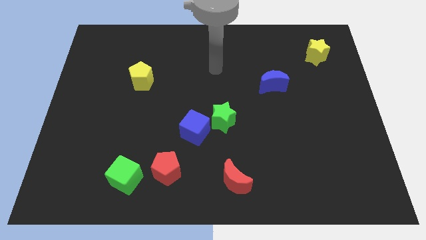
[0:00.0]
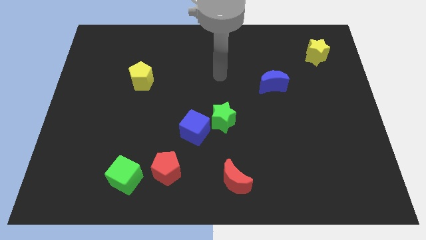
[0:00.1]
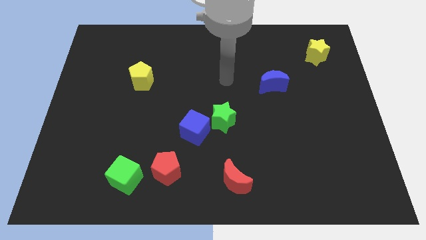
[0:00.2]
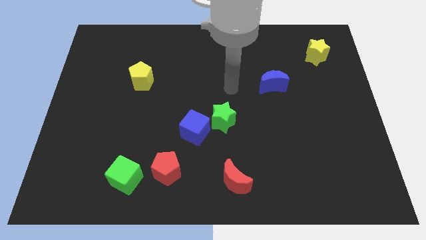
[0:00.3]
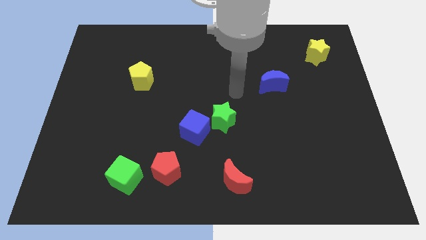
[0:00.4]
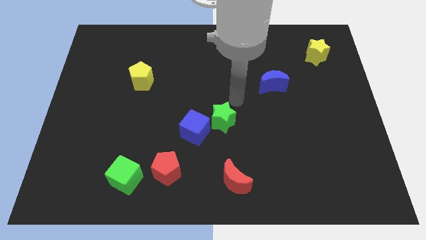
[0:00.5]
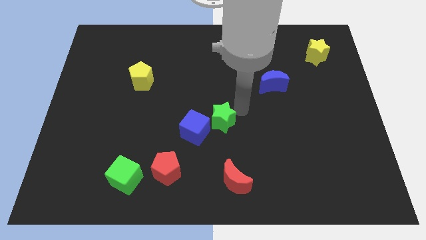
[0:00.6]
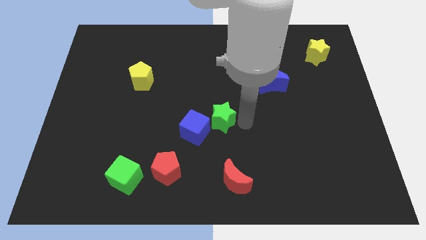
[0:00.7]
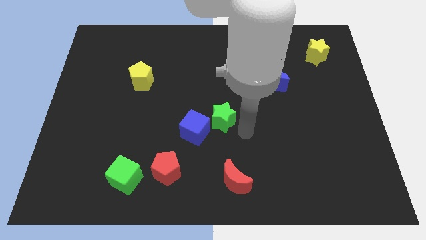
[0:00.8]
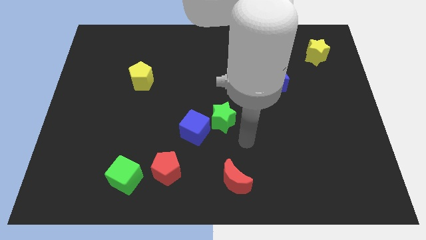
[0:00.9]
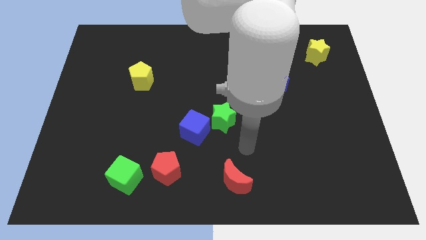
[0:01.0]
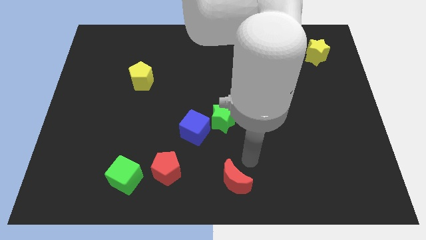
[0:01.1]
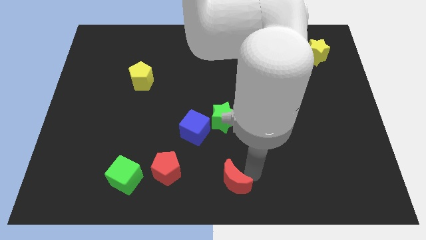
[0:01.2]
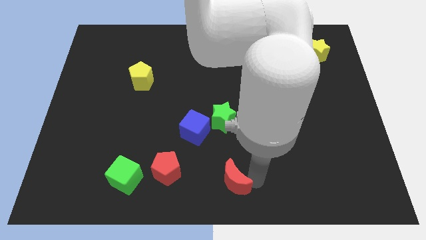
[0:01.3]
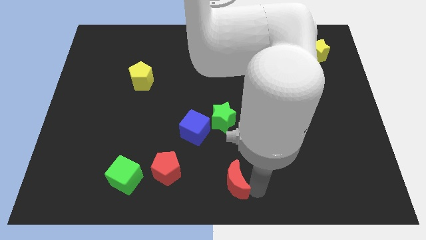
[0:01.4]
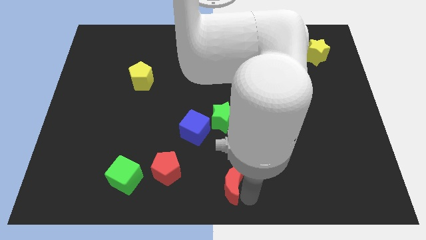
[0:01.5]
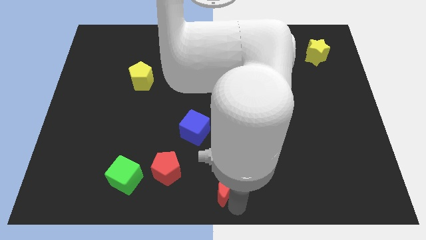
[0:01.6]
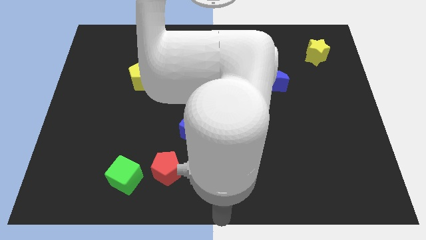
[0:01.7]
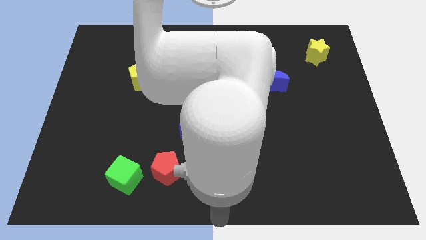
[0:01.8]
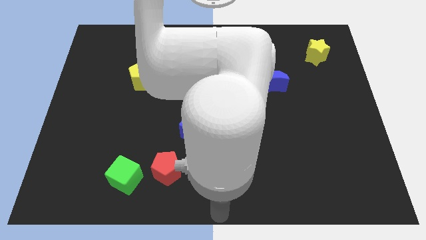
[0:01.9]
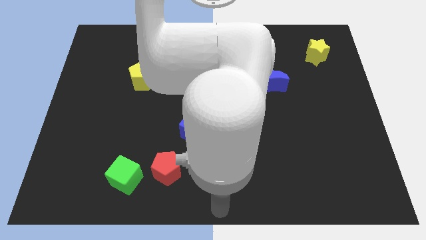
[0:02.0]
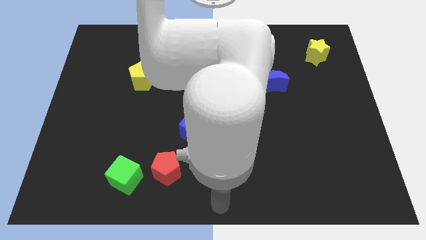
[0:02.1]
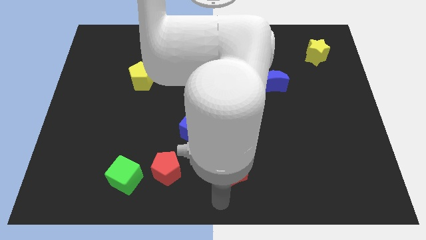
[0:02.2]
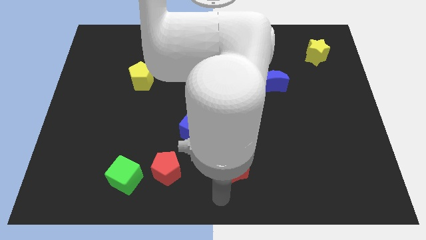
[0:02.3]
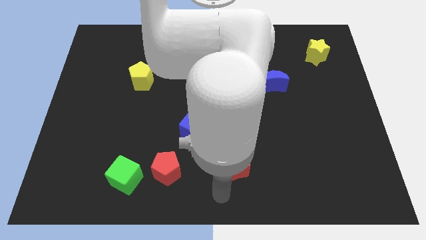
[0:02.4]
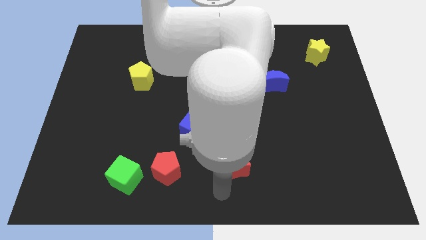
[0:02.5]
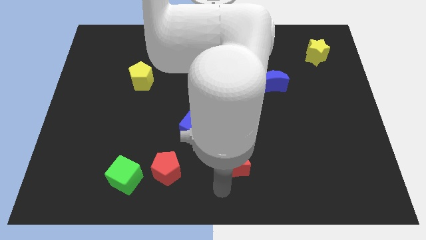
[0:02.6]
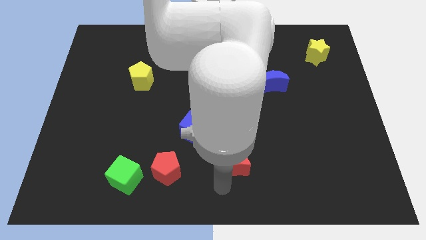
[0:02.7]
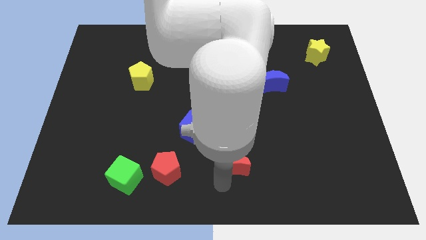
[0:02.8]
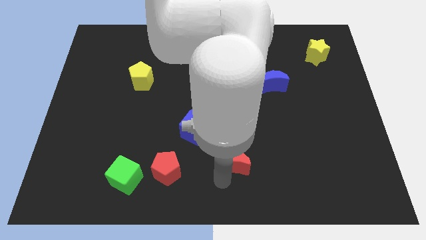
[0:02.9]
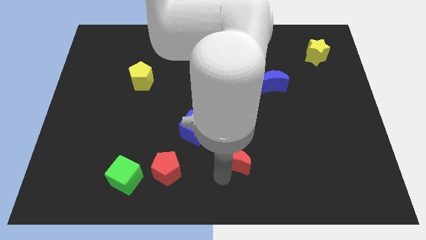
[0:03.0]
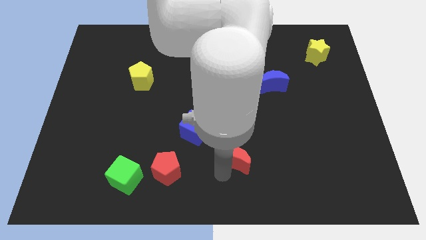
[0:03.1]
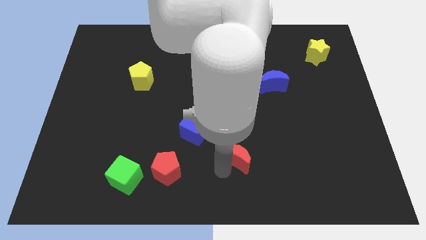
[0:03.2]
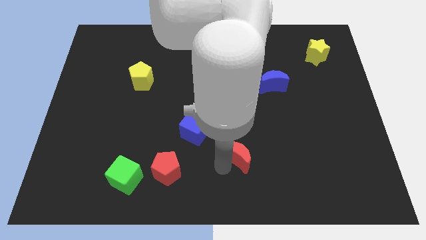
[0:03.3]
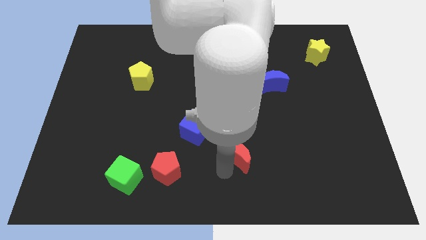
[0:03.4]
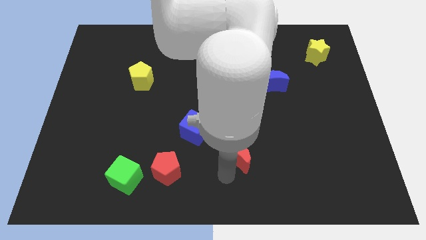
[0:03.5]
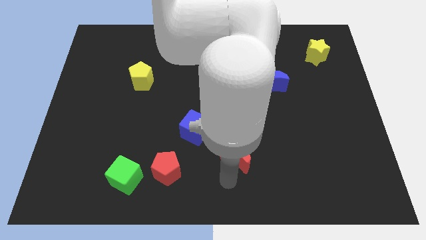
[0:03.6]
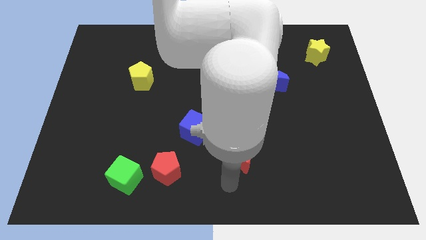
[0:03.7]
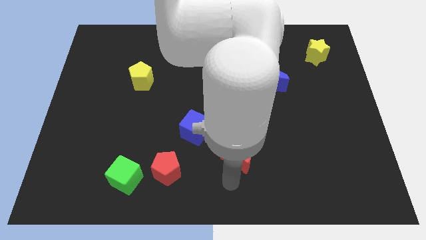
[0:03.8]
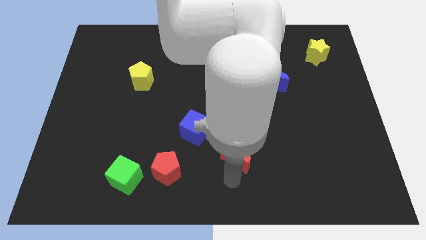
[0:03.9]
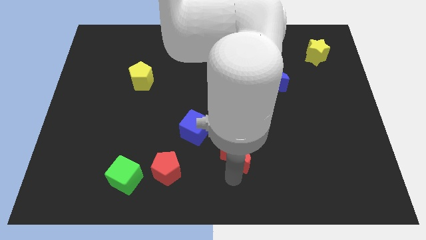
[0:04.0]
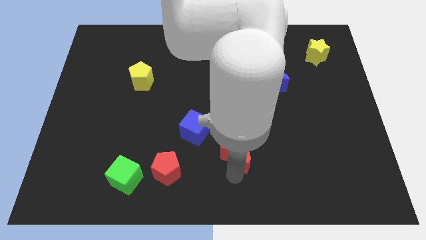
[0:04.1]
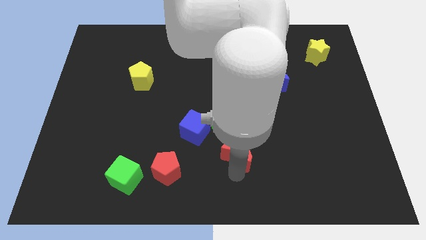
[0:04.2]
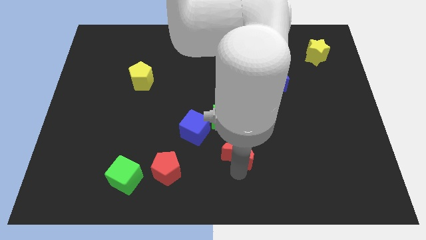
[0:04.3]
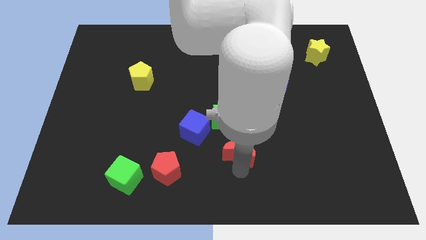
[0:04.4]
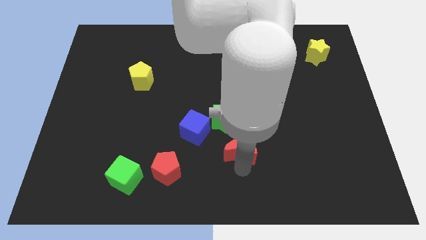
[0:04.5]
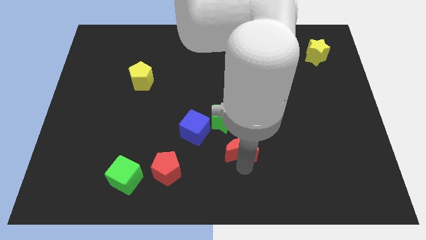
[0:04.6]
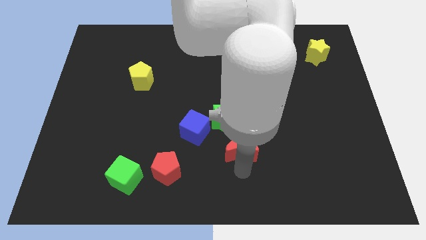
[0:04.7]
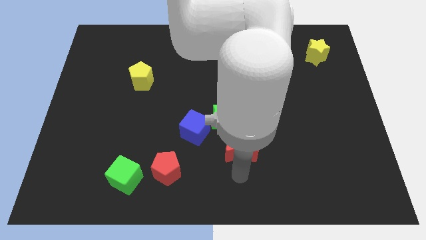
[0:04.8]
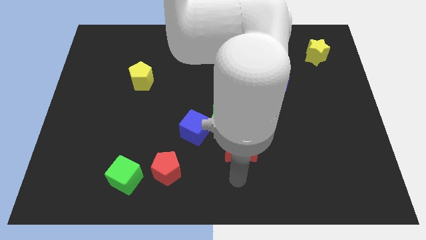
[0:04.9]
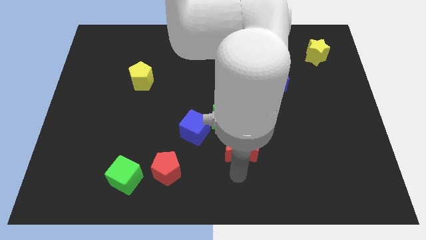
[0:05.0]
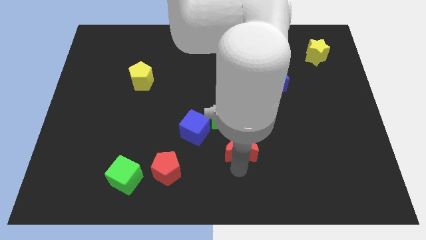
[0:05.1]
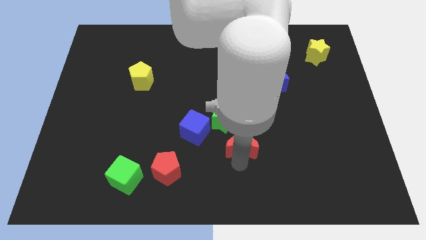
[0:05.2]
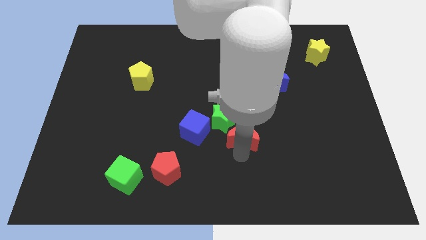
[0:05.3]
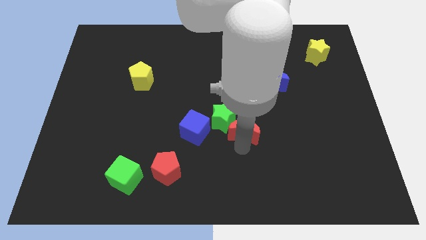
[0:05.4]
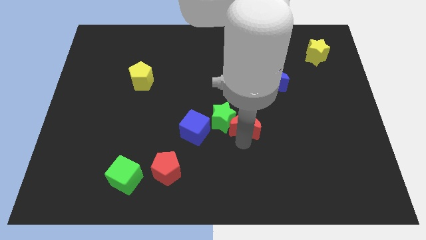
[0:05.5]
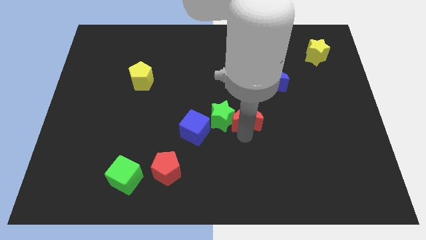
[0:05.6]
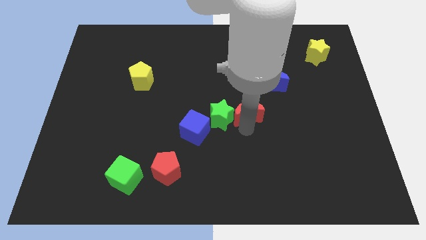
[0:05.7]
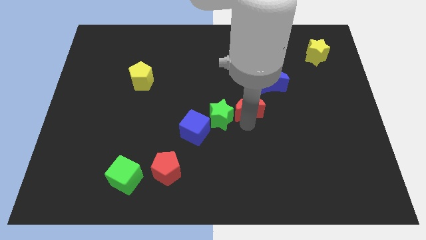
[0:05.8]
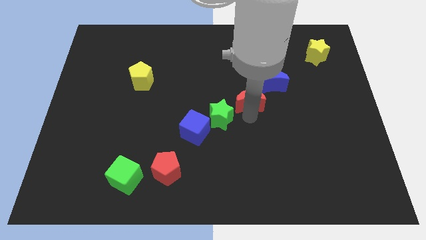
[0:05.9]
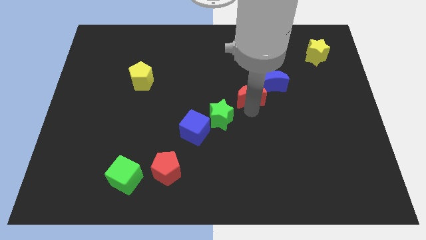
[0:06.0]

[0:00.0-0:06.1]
push the red moon up

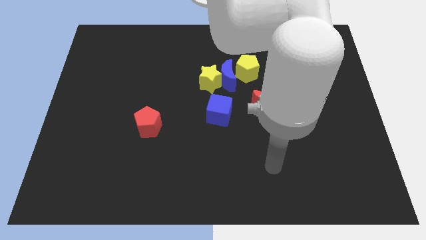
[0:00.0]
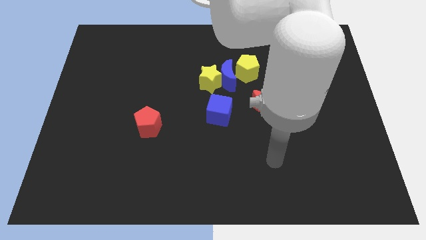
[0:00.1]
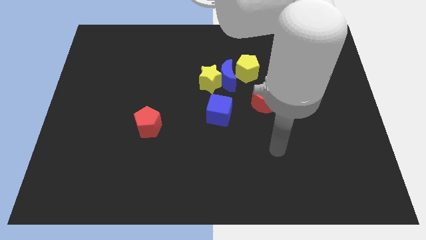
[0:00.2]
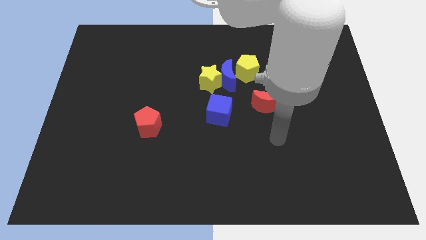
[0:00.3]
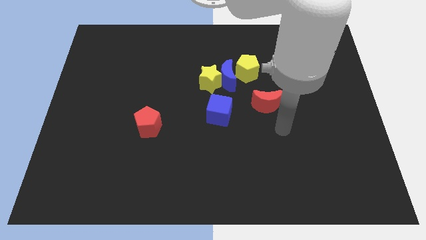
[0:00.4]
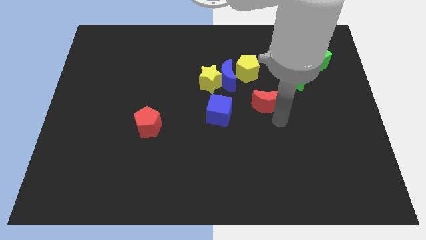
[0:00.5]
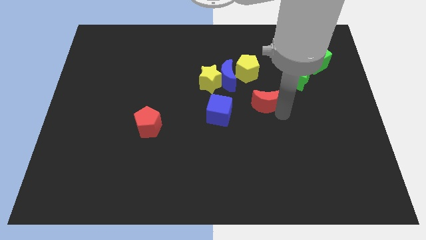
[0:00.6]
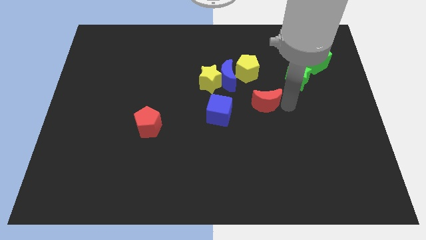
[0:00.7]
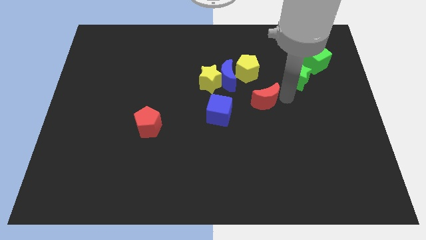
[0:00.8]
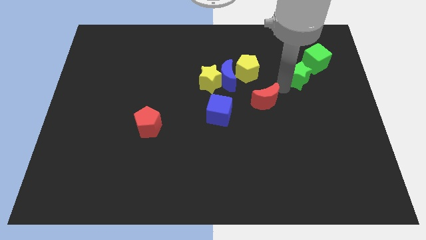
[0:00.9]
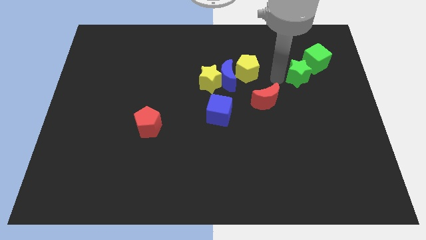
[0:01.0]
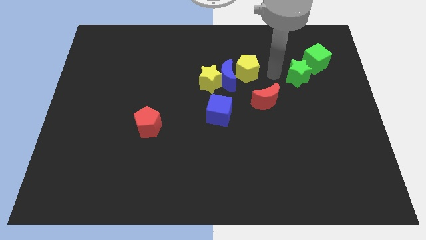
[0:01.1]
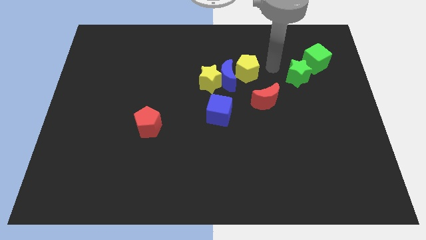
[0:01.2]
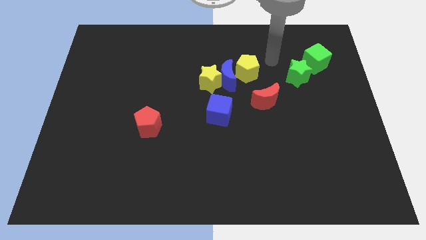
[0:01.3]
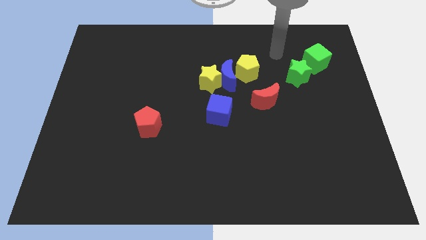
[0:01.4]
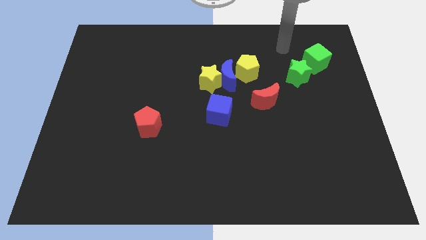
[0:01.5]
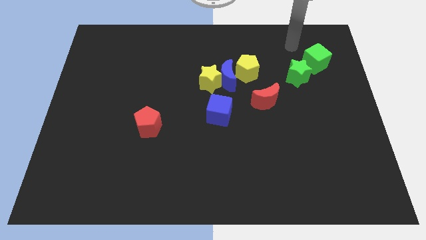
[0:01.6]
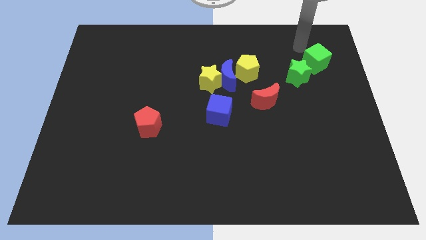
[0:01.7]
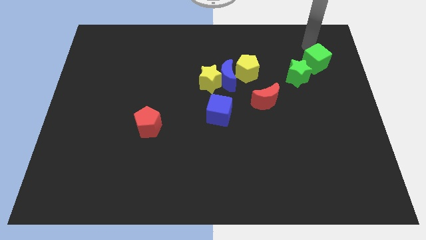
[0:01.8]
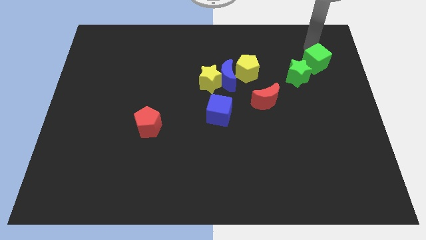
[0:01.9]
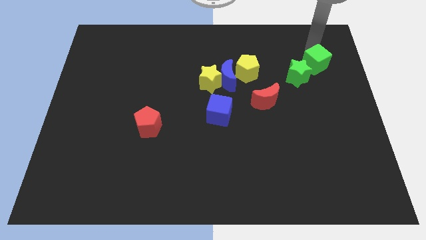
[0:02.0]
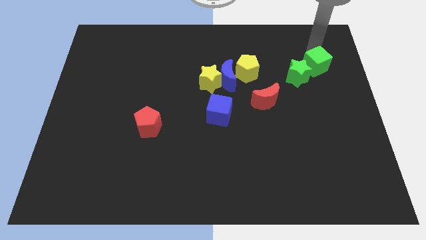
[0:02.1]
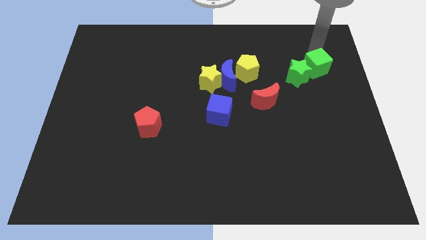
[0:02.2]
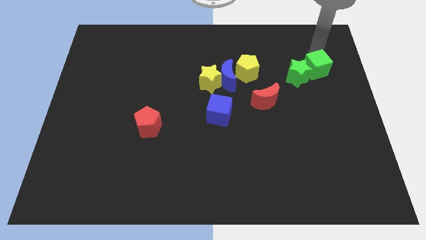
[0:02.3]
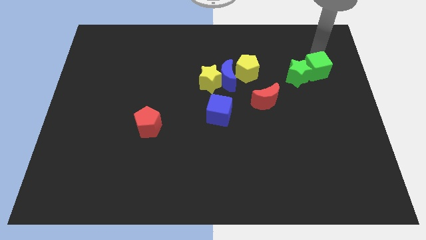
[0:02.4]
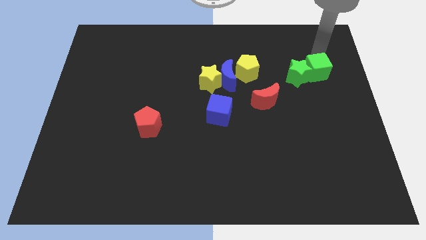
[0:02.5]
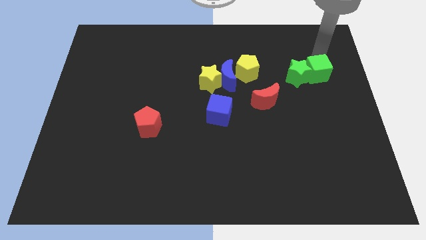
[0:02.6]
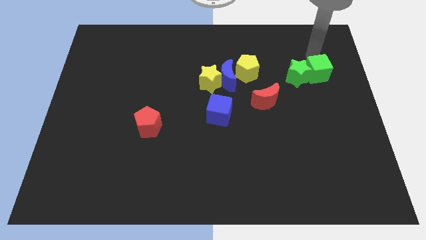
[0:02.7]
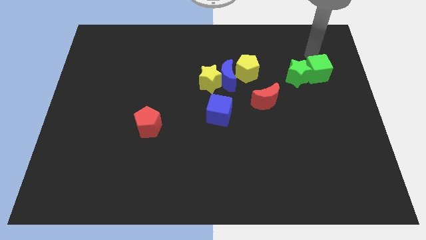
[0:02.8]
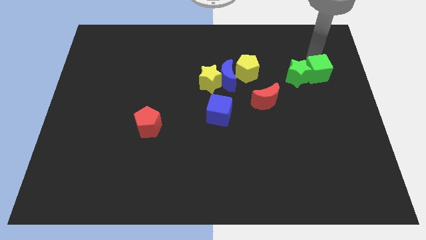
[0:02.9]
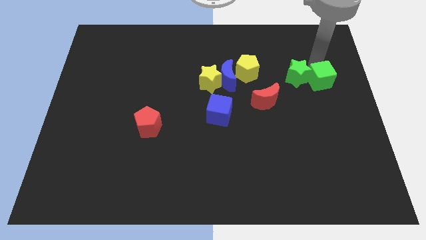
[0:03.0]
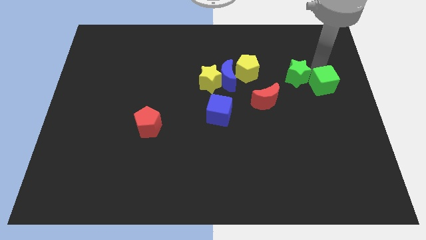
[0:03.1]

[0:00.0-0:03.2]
slightly push the green cube downwards
